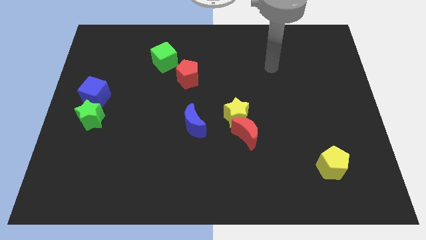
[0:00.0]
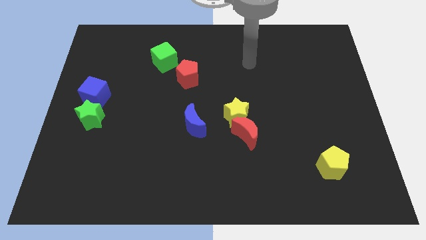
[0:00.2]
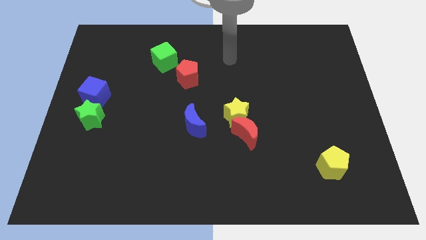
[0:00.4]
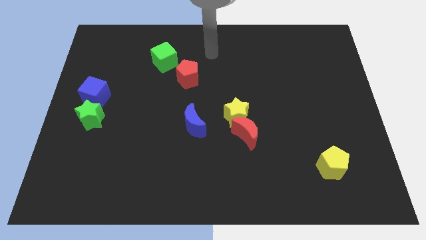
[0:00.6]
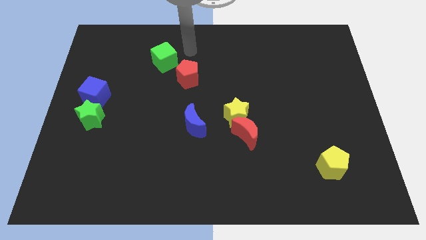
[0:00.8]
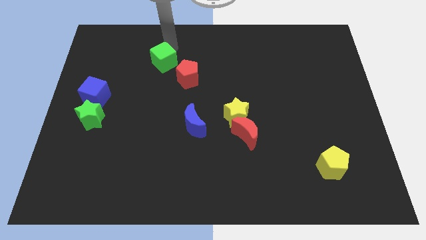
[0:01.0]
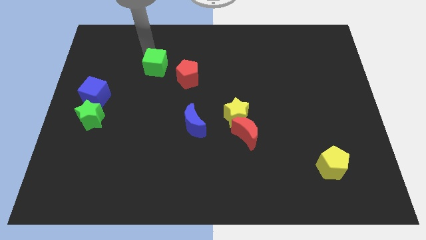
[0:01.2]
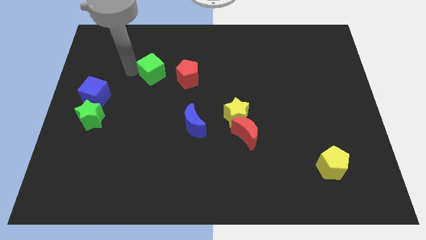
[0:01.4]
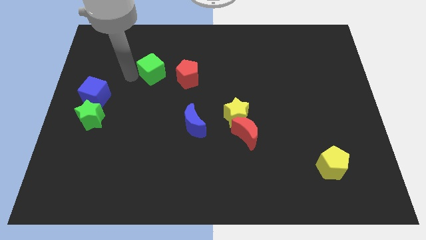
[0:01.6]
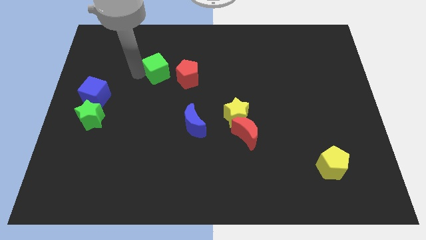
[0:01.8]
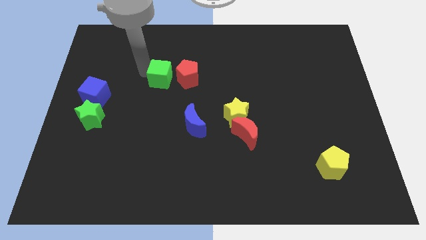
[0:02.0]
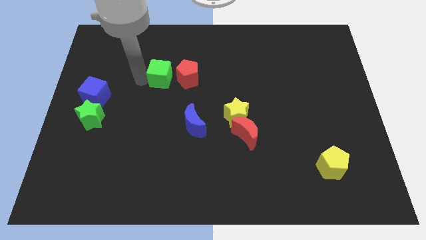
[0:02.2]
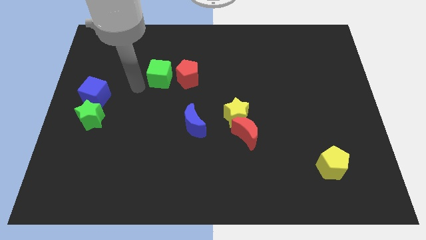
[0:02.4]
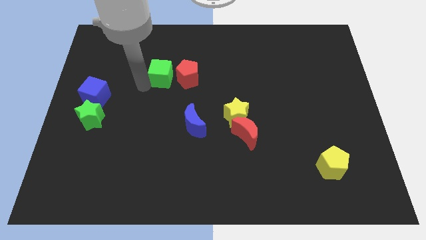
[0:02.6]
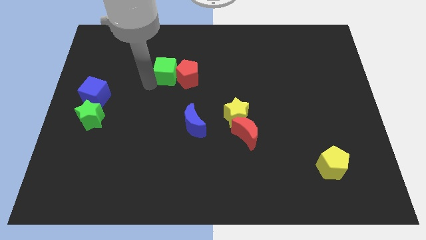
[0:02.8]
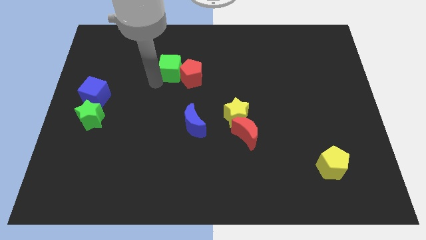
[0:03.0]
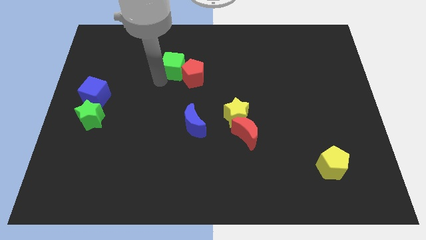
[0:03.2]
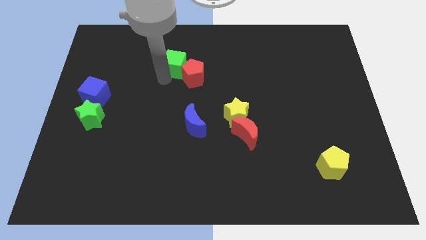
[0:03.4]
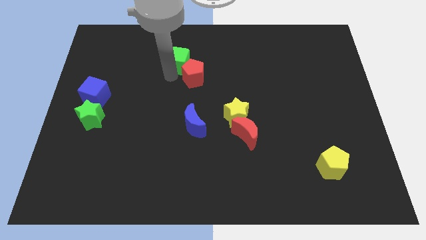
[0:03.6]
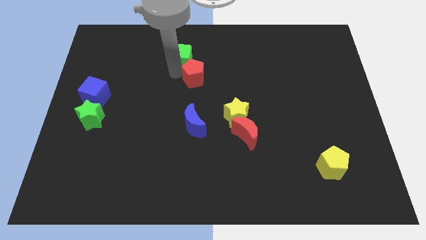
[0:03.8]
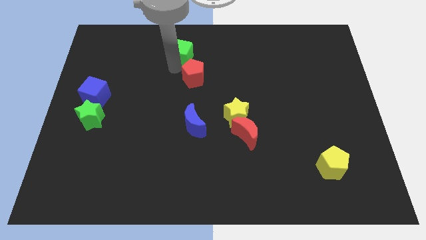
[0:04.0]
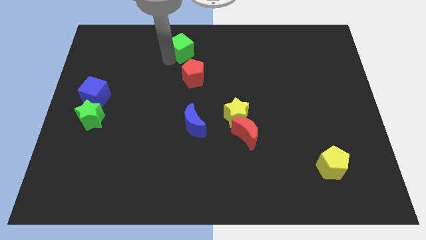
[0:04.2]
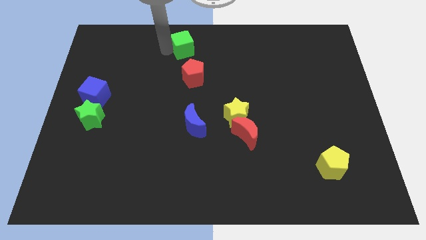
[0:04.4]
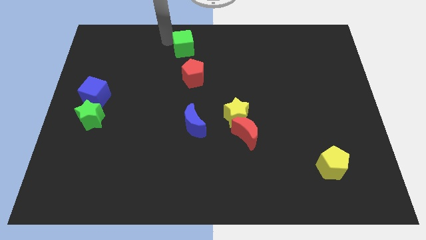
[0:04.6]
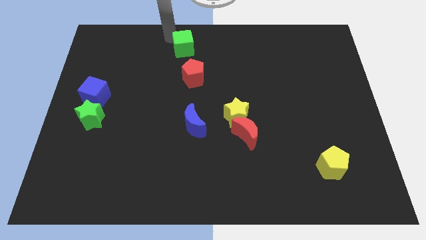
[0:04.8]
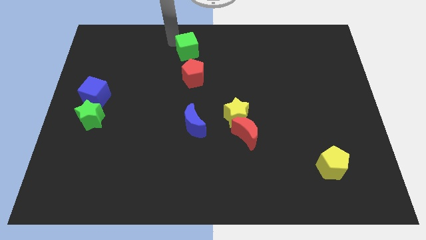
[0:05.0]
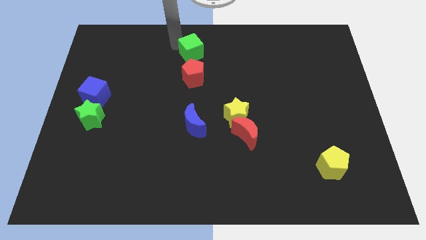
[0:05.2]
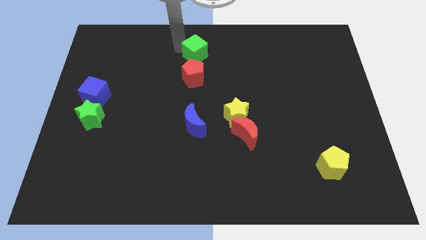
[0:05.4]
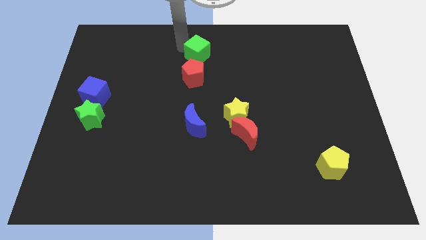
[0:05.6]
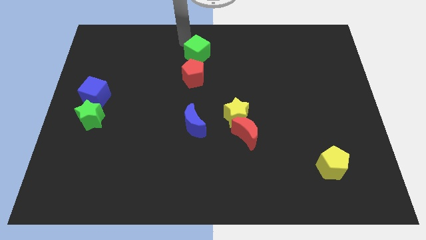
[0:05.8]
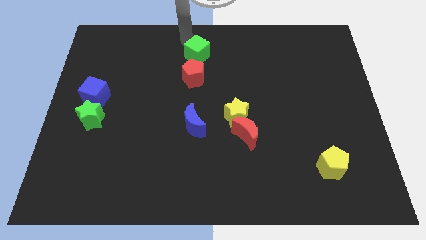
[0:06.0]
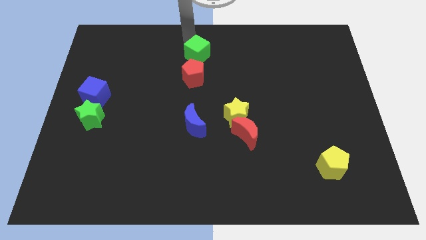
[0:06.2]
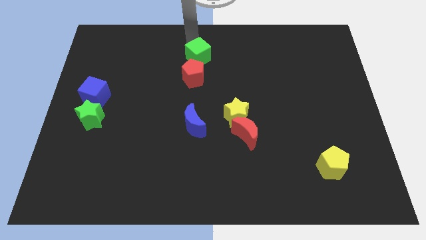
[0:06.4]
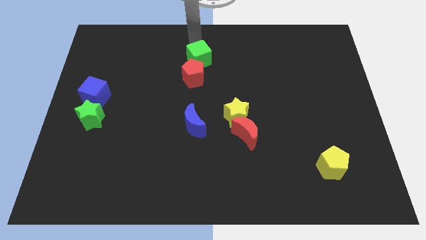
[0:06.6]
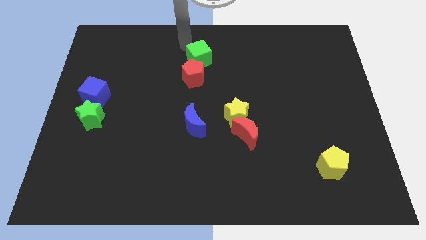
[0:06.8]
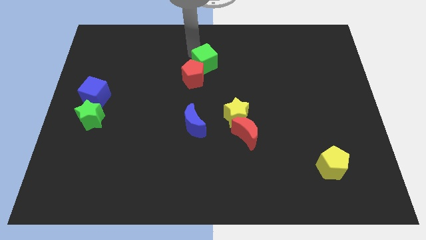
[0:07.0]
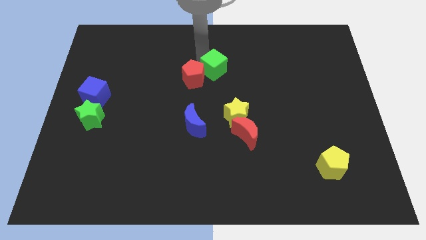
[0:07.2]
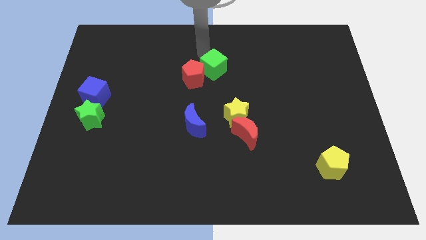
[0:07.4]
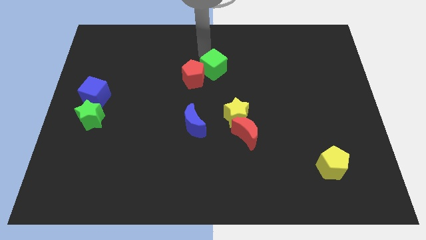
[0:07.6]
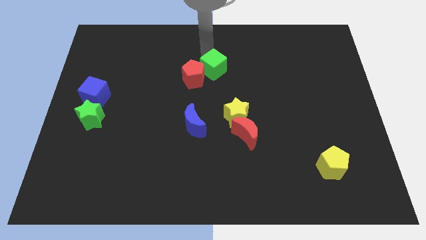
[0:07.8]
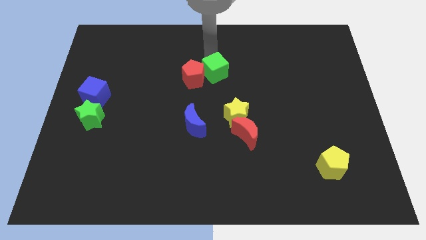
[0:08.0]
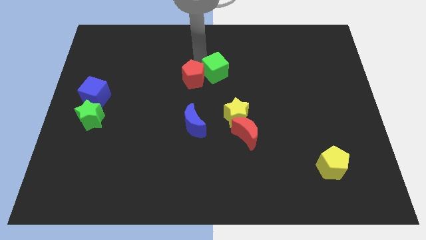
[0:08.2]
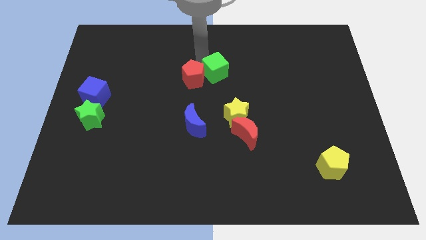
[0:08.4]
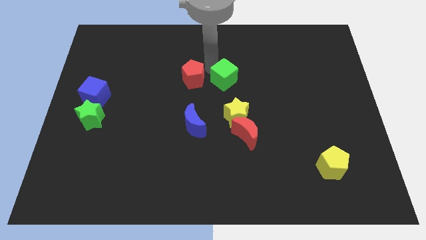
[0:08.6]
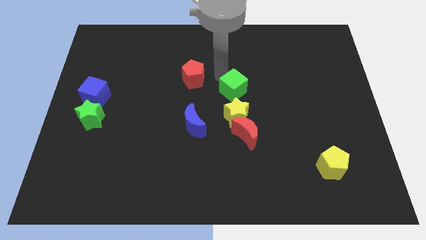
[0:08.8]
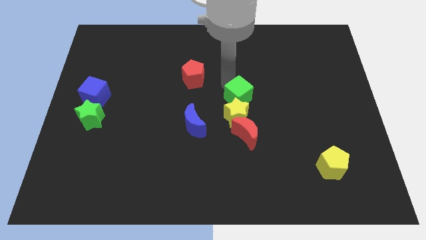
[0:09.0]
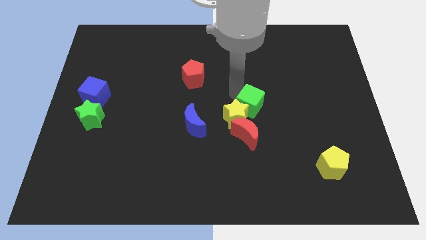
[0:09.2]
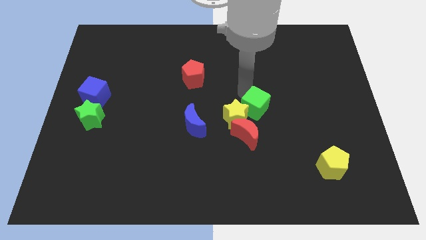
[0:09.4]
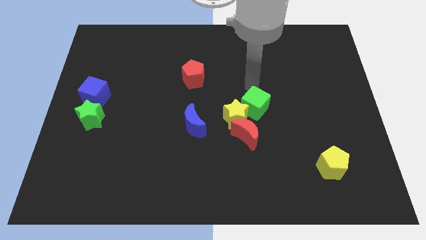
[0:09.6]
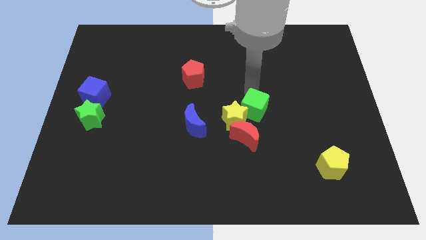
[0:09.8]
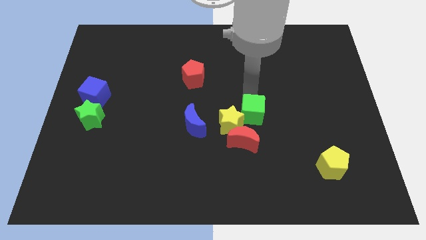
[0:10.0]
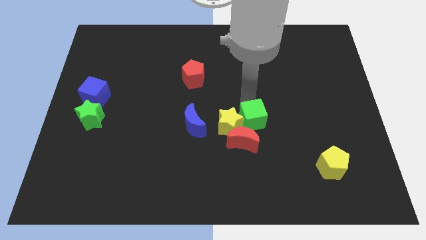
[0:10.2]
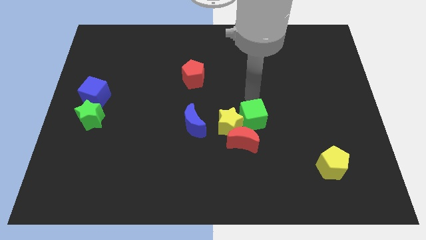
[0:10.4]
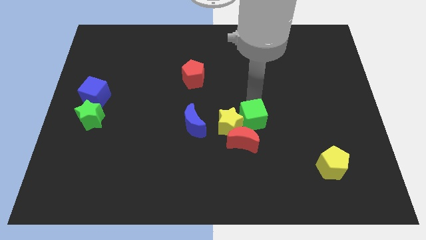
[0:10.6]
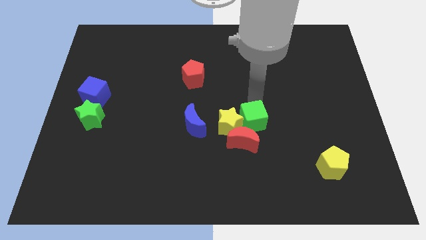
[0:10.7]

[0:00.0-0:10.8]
put the green cube to the bottom right of the yellow star
